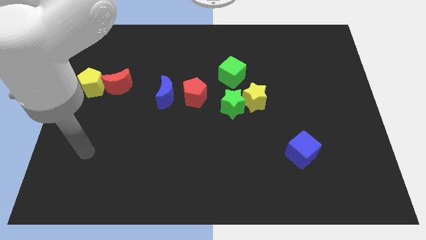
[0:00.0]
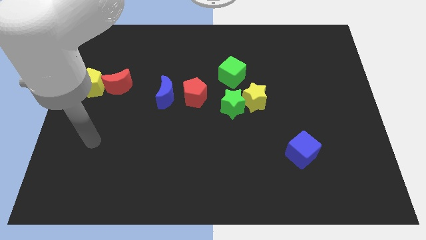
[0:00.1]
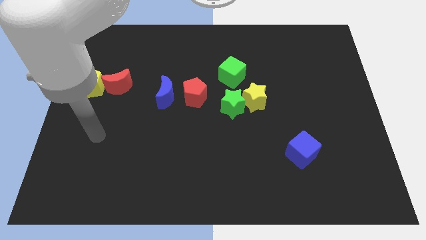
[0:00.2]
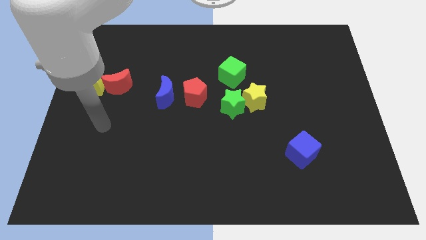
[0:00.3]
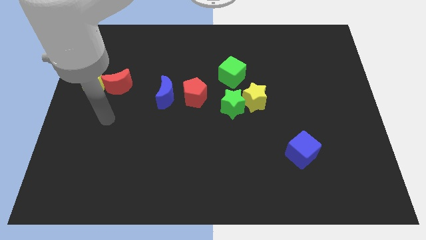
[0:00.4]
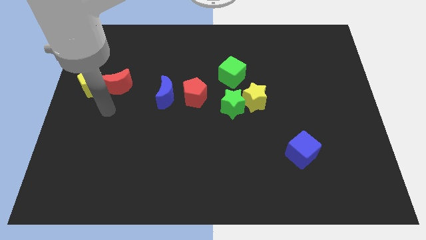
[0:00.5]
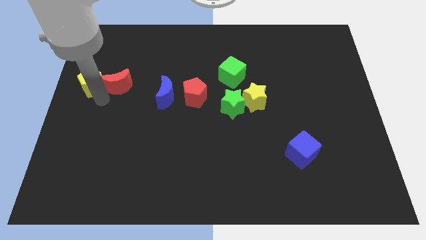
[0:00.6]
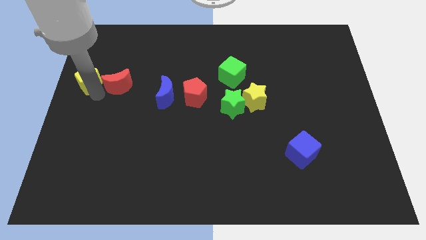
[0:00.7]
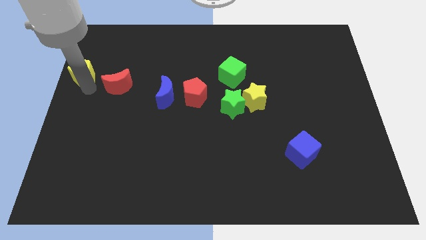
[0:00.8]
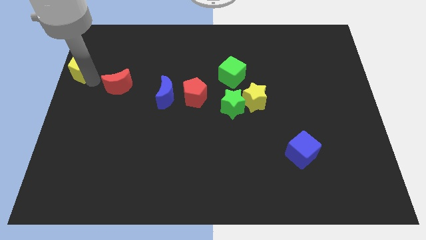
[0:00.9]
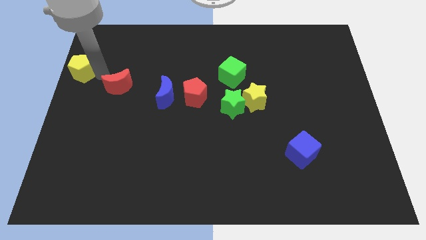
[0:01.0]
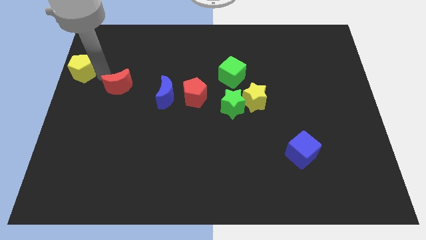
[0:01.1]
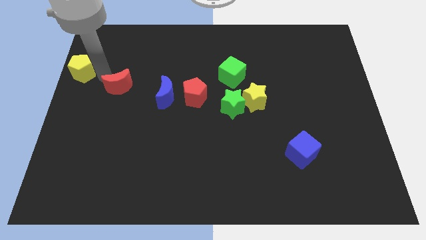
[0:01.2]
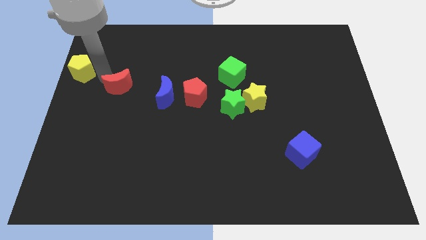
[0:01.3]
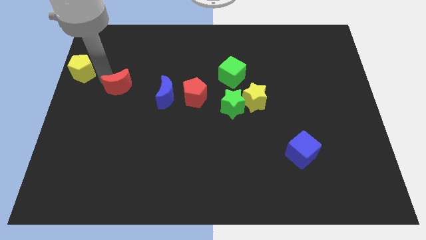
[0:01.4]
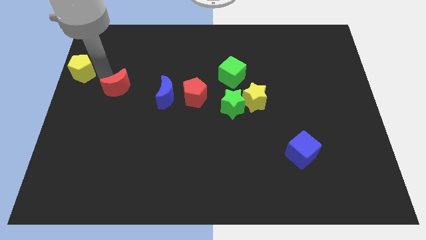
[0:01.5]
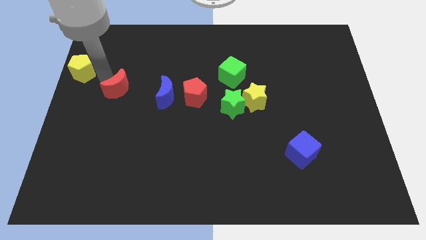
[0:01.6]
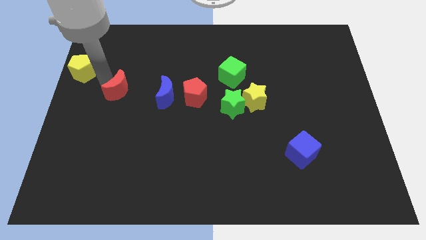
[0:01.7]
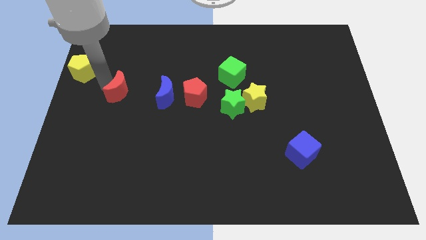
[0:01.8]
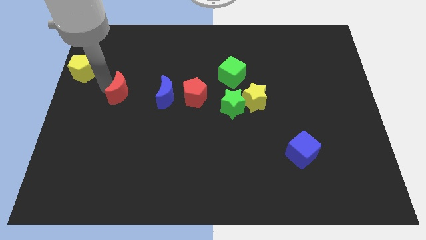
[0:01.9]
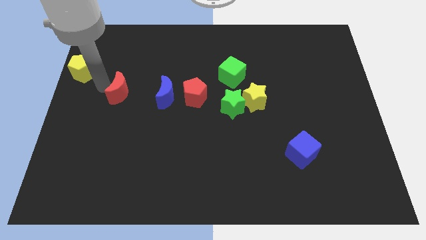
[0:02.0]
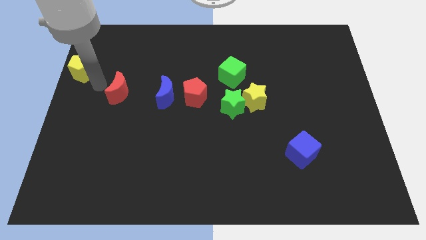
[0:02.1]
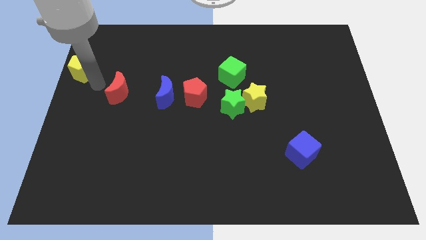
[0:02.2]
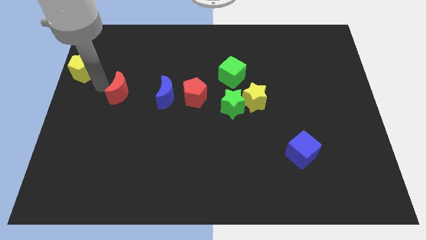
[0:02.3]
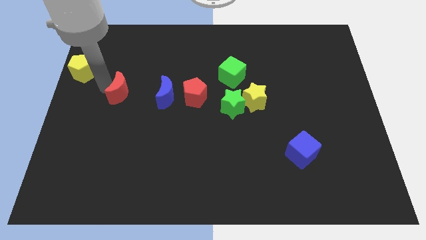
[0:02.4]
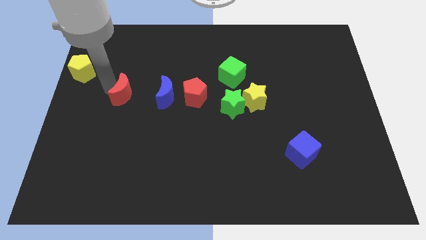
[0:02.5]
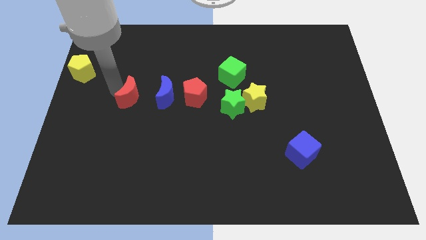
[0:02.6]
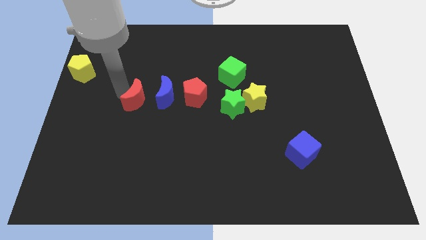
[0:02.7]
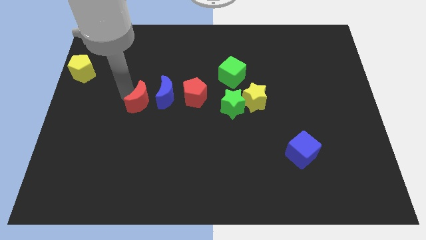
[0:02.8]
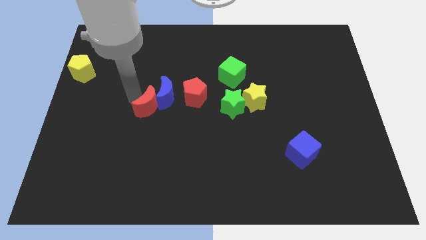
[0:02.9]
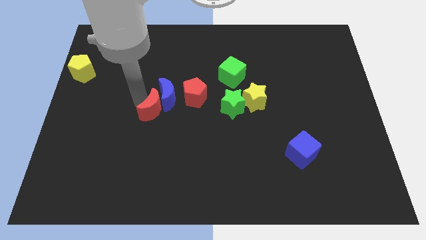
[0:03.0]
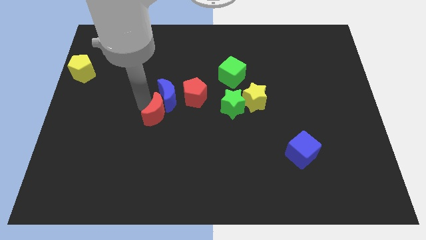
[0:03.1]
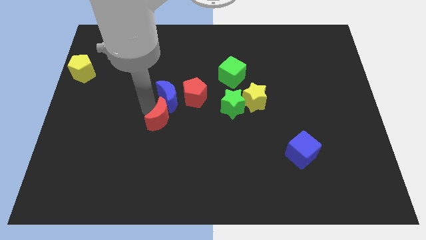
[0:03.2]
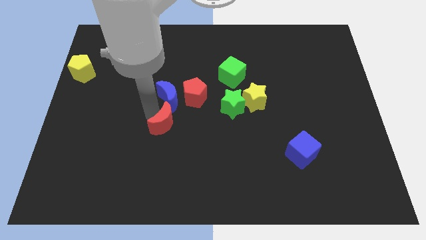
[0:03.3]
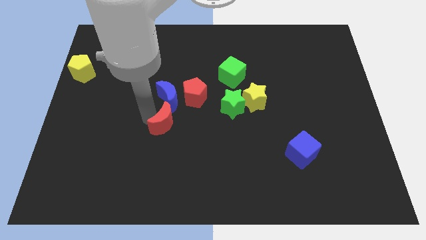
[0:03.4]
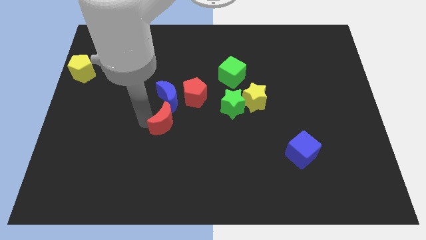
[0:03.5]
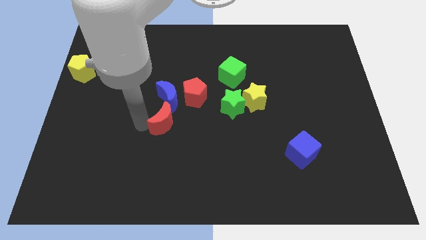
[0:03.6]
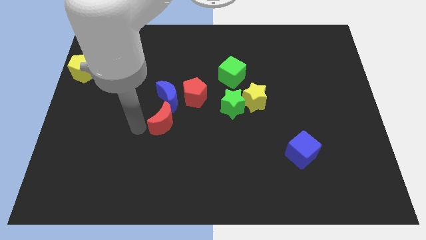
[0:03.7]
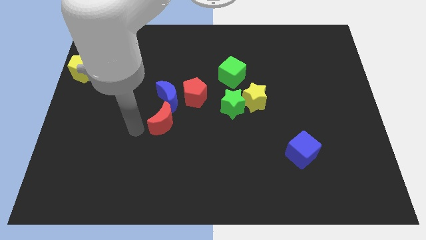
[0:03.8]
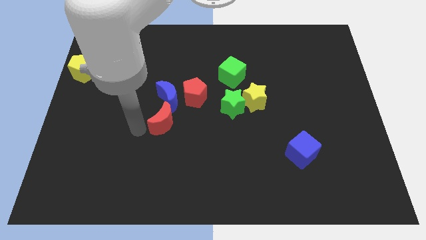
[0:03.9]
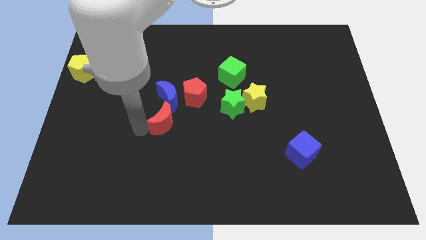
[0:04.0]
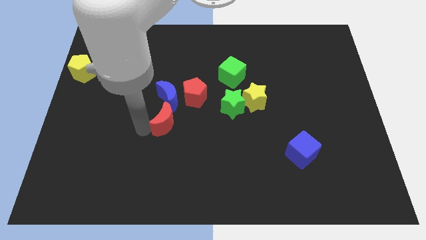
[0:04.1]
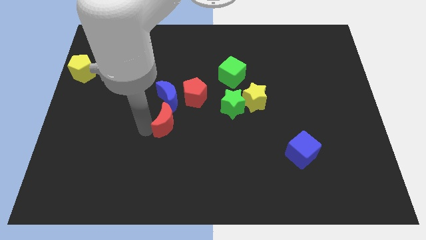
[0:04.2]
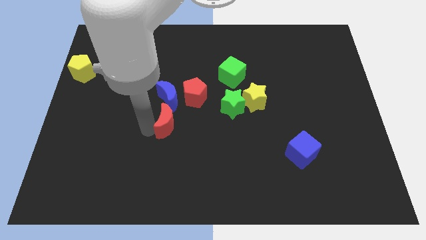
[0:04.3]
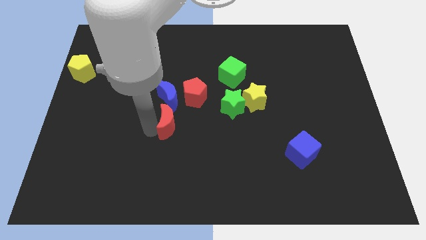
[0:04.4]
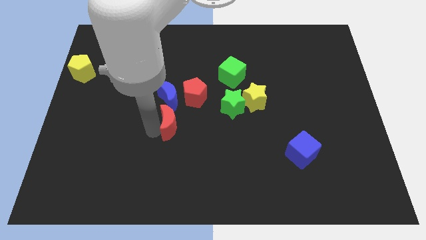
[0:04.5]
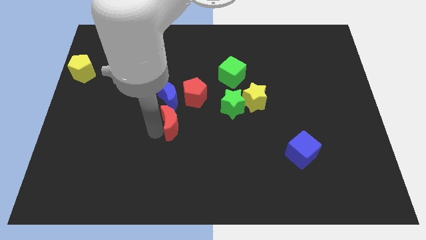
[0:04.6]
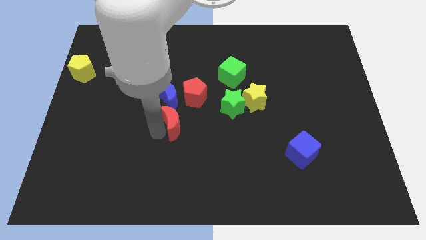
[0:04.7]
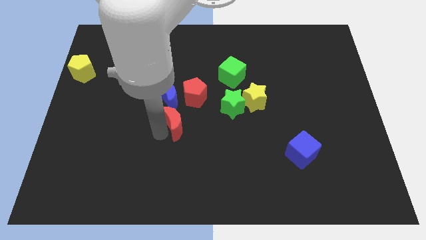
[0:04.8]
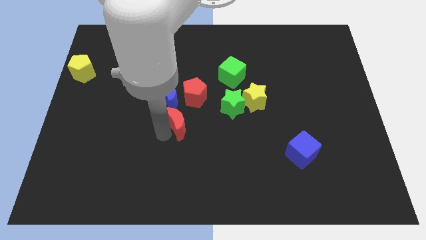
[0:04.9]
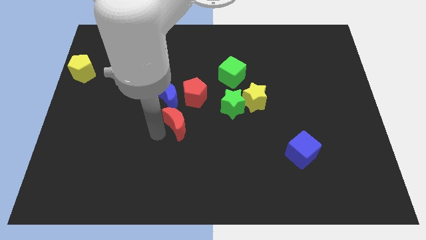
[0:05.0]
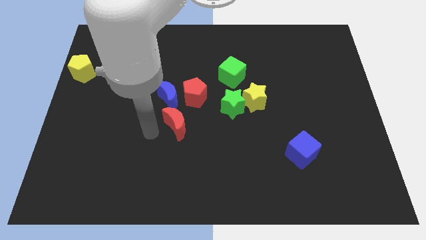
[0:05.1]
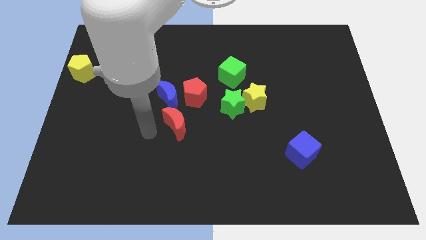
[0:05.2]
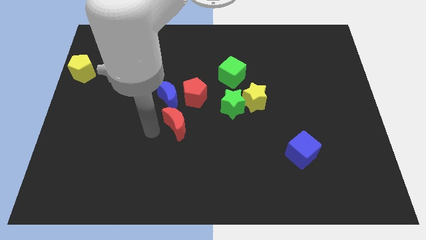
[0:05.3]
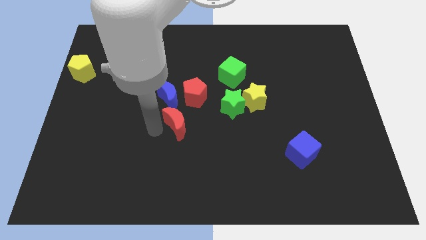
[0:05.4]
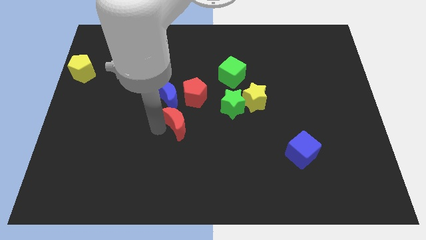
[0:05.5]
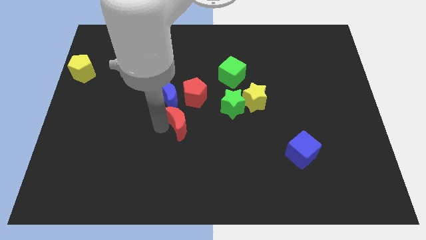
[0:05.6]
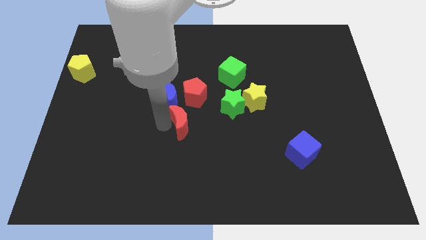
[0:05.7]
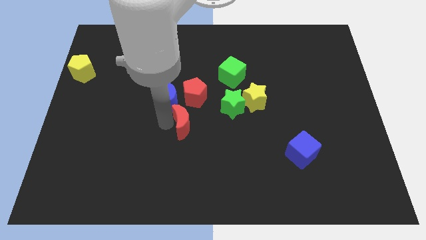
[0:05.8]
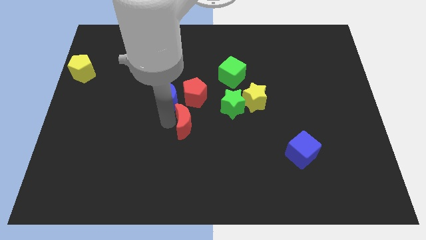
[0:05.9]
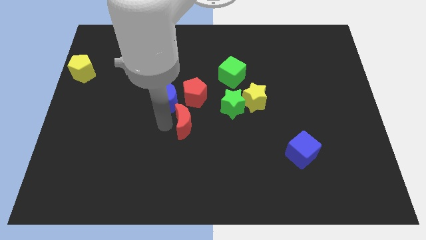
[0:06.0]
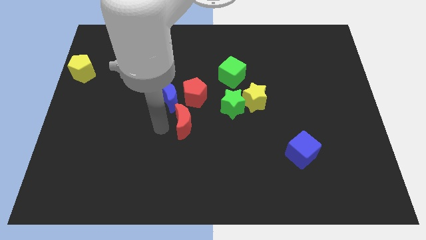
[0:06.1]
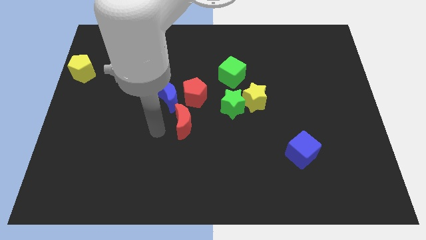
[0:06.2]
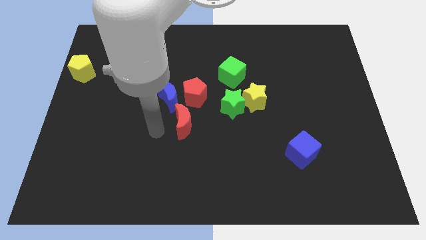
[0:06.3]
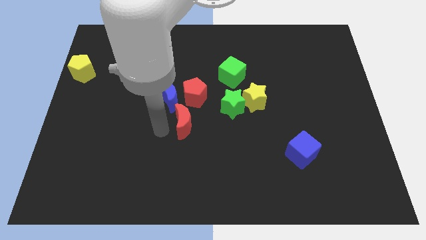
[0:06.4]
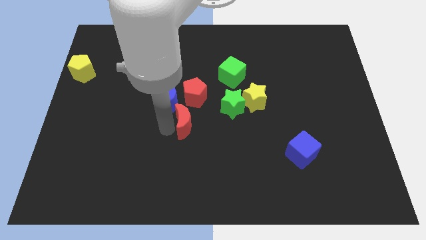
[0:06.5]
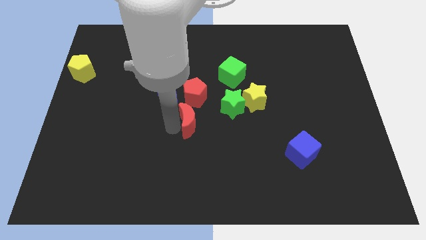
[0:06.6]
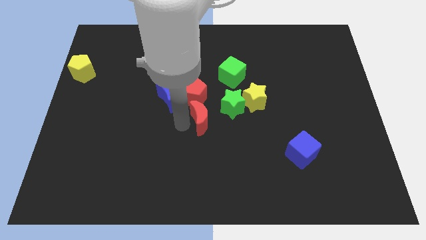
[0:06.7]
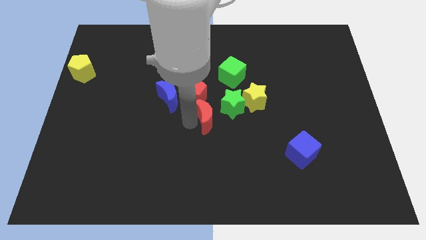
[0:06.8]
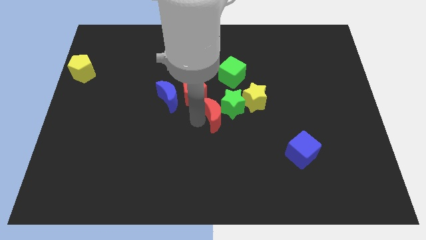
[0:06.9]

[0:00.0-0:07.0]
slide the red moon to the bottom left side of the yellow star
